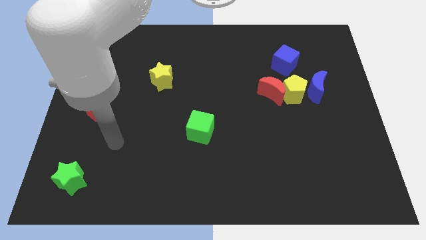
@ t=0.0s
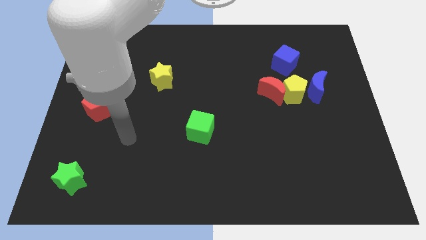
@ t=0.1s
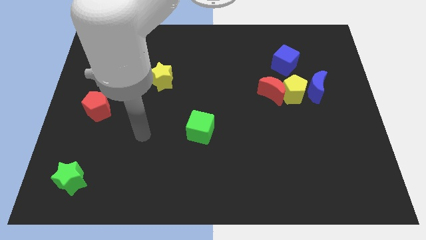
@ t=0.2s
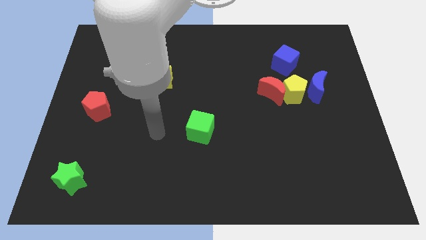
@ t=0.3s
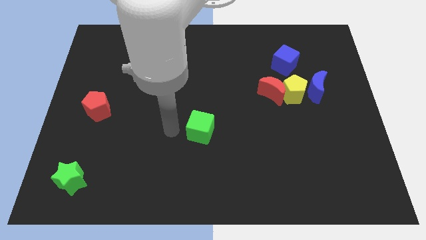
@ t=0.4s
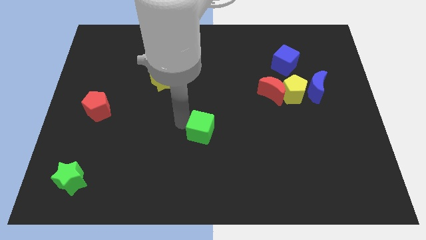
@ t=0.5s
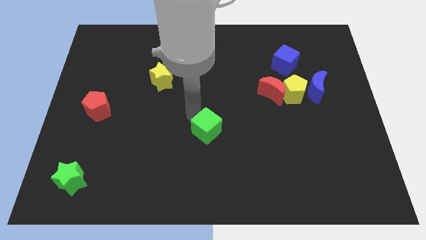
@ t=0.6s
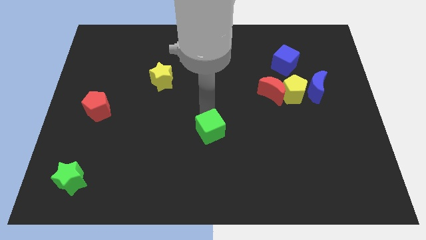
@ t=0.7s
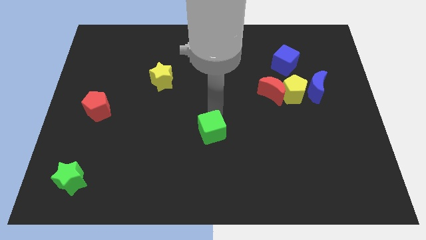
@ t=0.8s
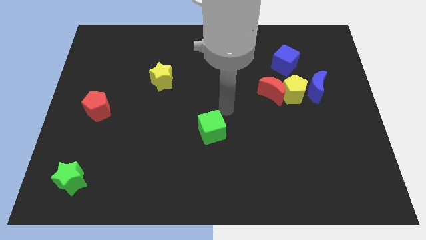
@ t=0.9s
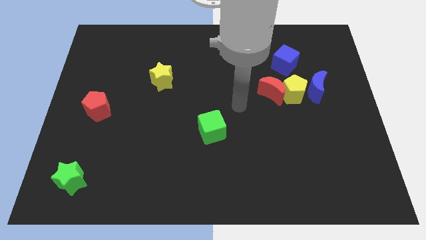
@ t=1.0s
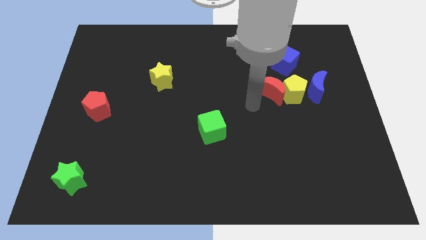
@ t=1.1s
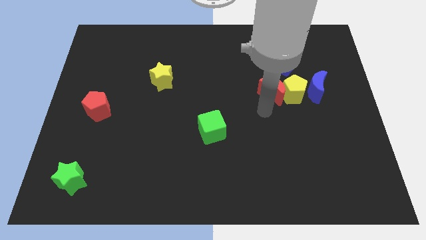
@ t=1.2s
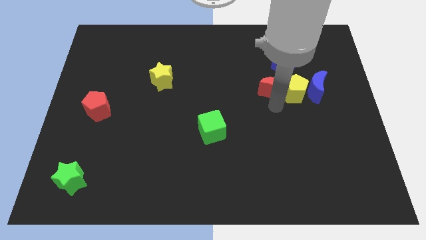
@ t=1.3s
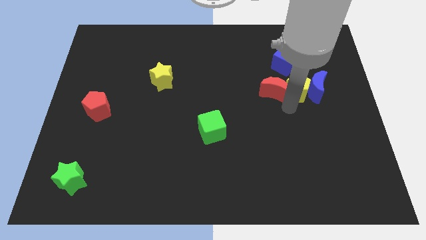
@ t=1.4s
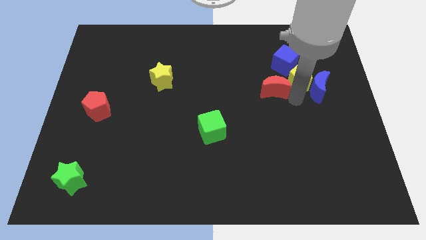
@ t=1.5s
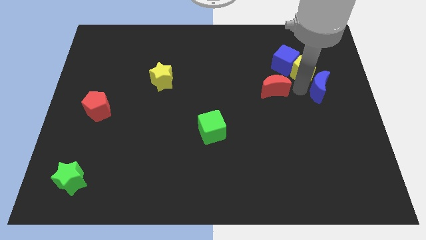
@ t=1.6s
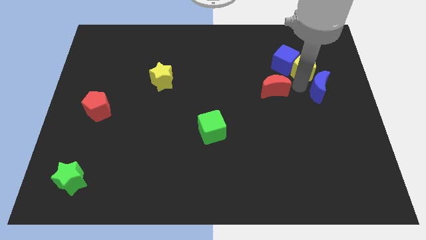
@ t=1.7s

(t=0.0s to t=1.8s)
separate the red moon from the yellow pentagon

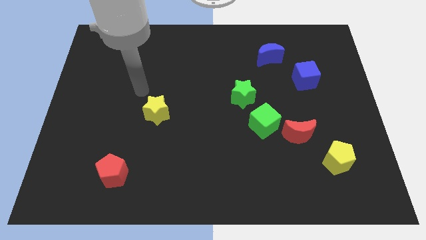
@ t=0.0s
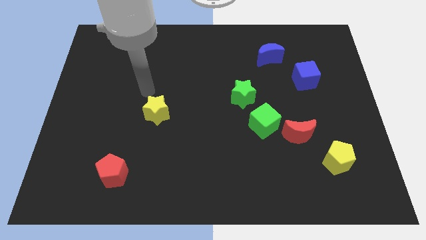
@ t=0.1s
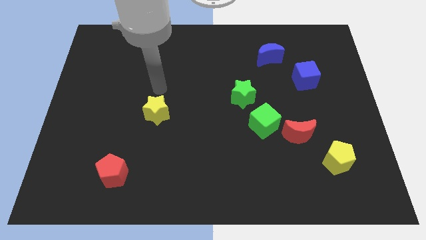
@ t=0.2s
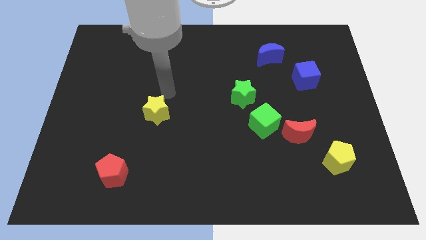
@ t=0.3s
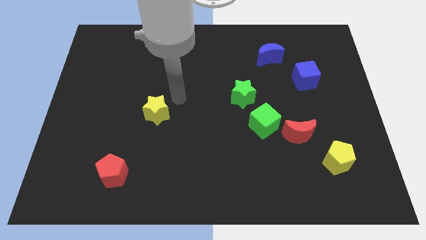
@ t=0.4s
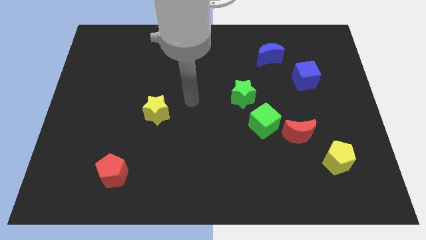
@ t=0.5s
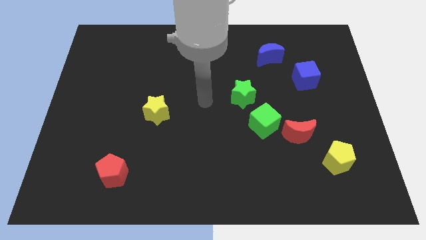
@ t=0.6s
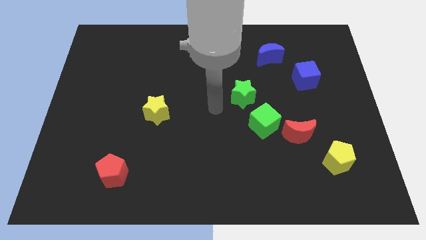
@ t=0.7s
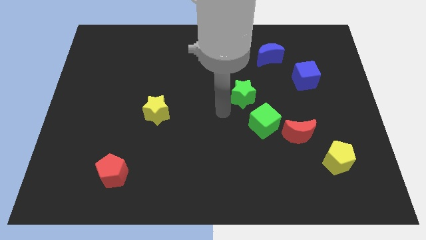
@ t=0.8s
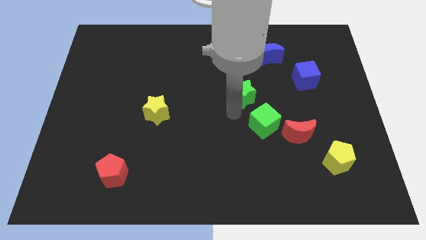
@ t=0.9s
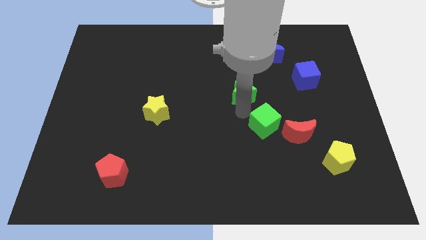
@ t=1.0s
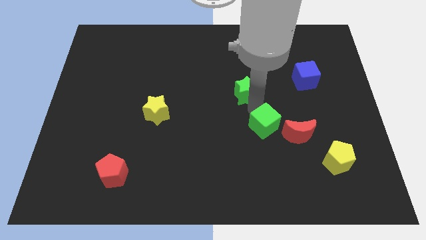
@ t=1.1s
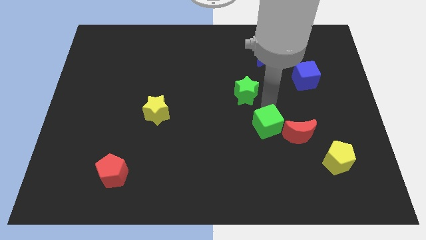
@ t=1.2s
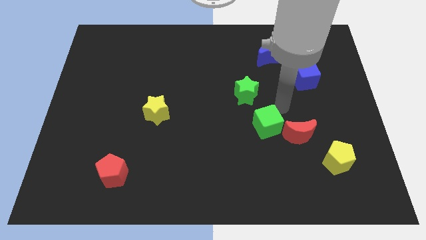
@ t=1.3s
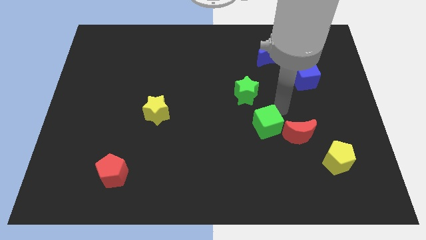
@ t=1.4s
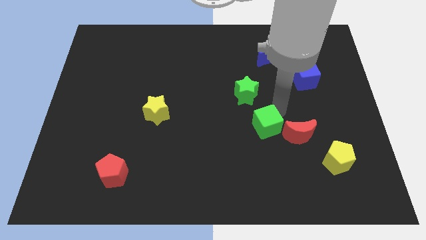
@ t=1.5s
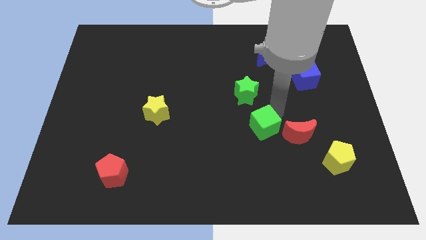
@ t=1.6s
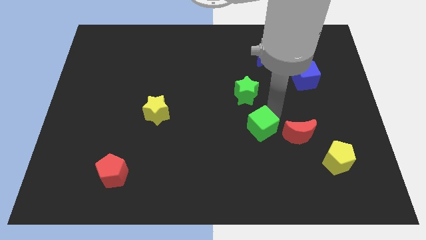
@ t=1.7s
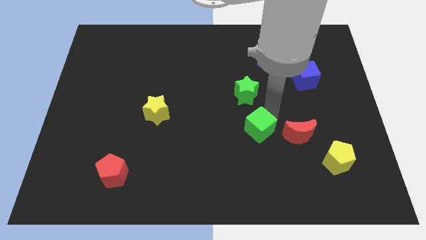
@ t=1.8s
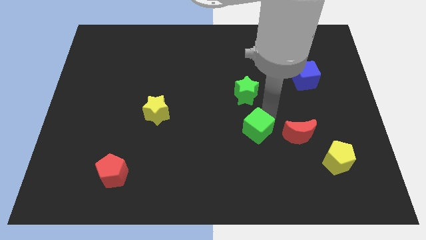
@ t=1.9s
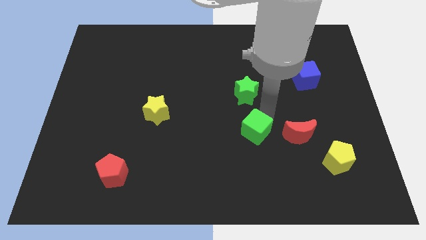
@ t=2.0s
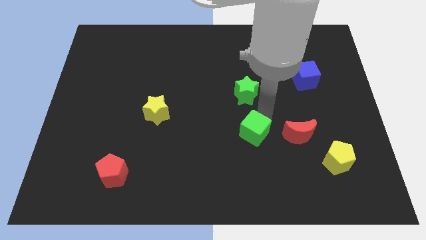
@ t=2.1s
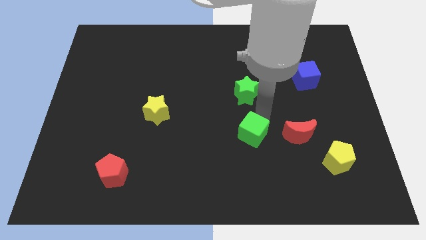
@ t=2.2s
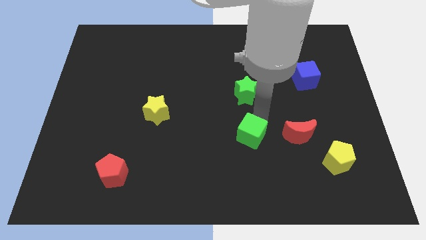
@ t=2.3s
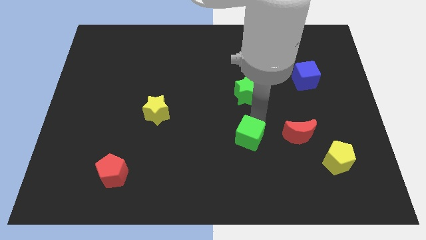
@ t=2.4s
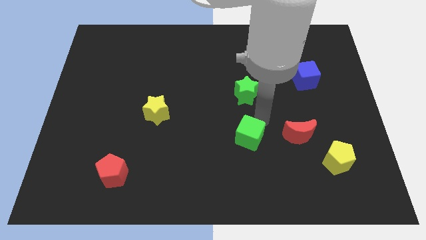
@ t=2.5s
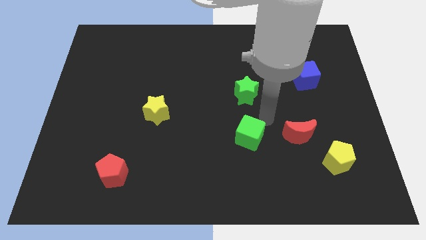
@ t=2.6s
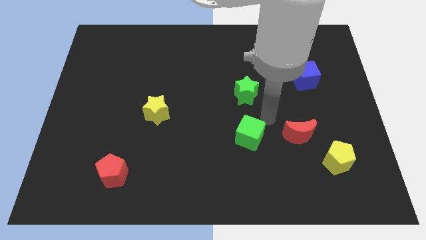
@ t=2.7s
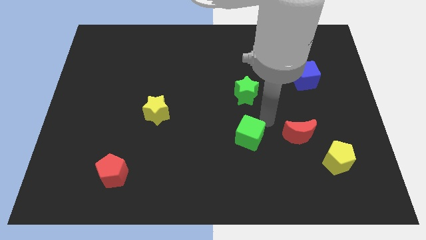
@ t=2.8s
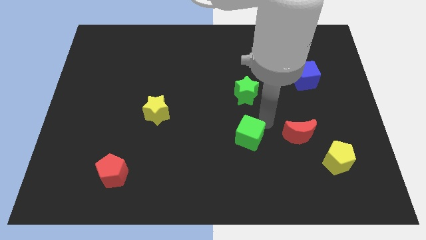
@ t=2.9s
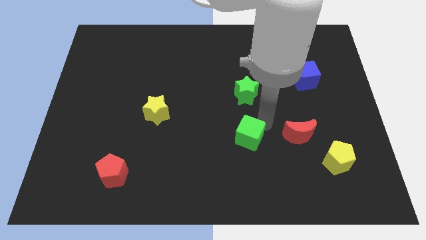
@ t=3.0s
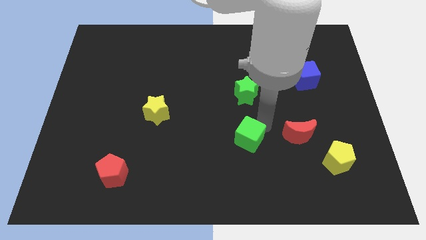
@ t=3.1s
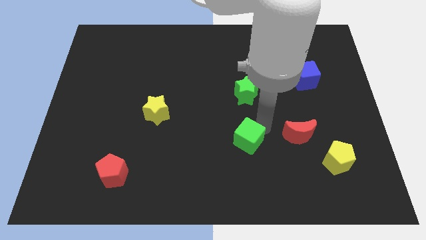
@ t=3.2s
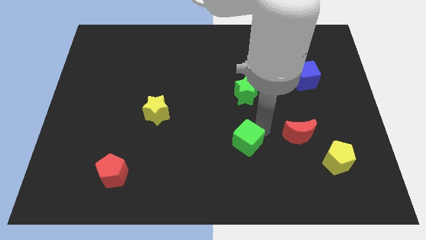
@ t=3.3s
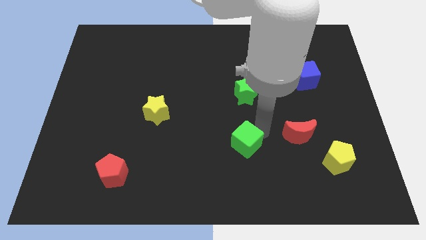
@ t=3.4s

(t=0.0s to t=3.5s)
separate the green cube from the red moon and green star

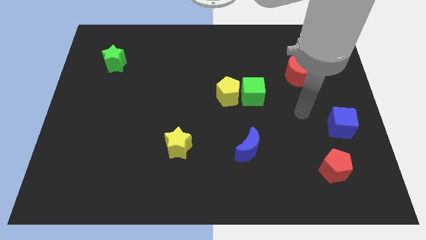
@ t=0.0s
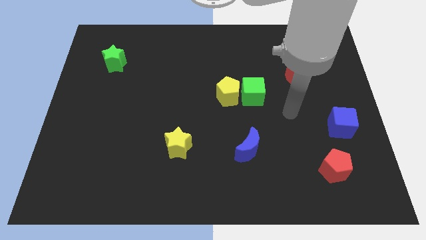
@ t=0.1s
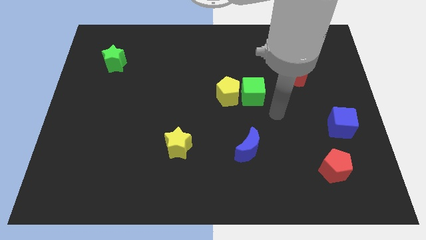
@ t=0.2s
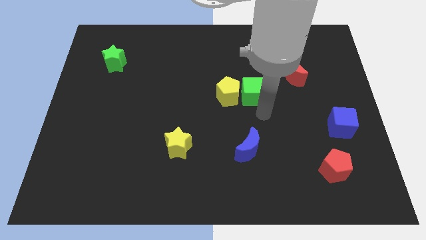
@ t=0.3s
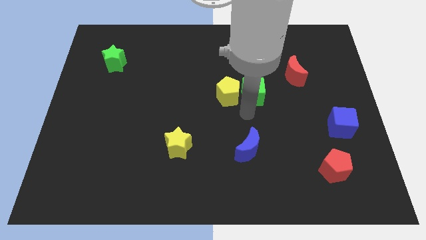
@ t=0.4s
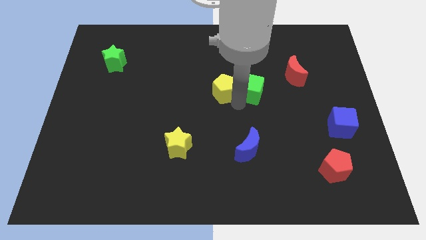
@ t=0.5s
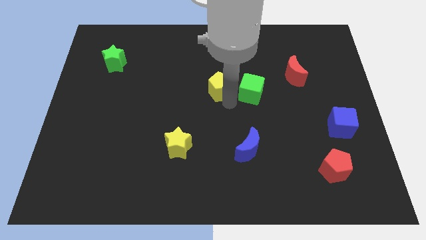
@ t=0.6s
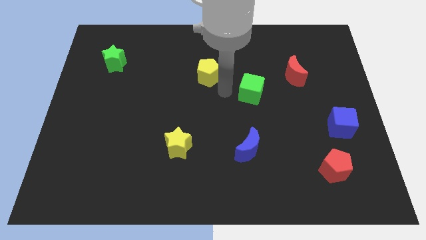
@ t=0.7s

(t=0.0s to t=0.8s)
move the green cube away from the yellow pentagon

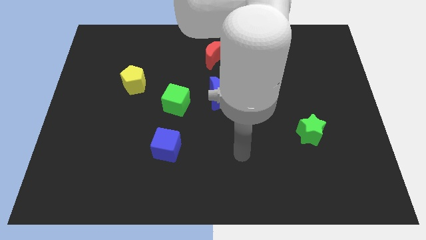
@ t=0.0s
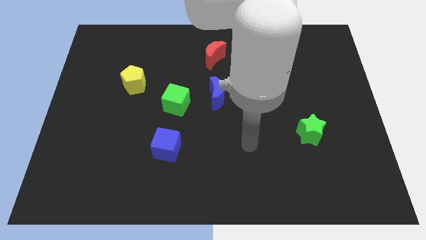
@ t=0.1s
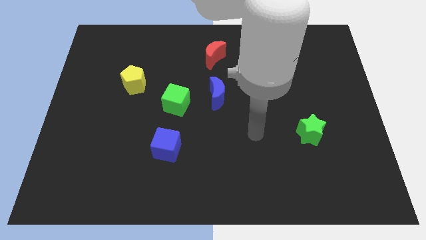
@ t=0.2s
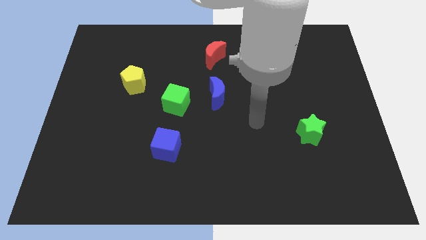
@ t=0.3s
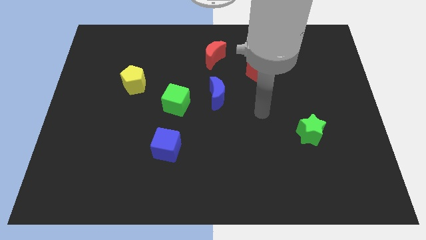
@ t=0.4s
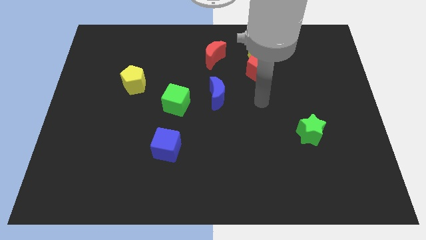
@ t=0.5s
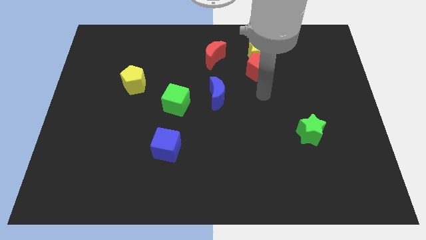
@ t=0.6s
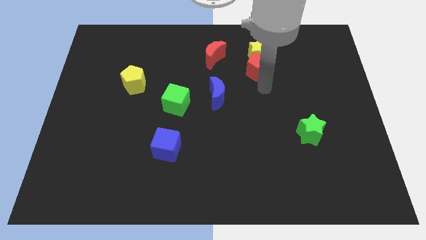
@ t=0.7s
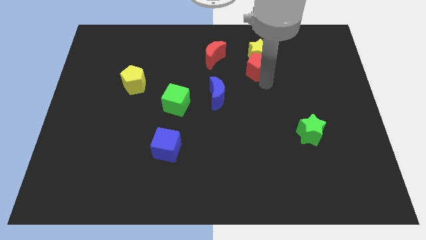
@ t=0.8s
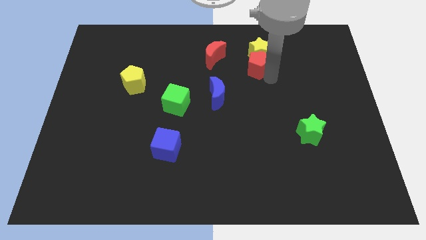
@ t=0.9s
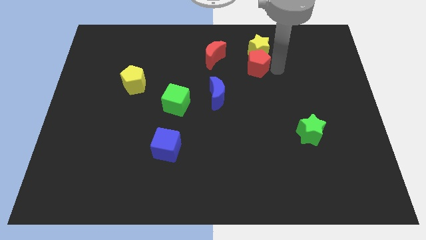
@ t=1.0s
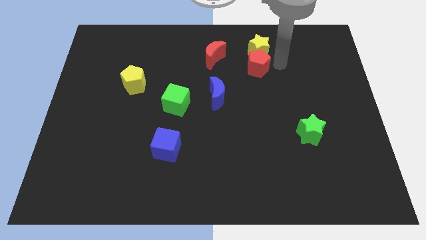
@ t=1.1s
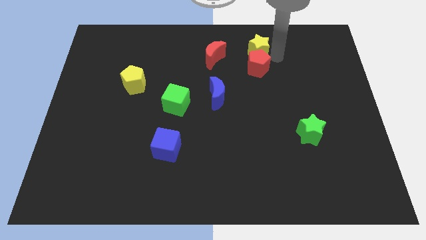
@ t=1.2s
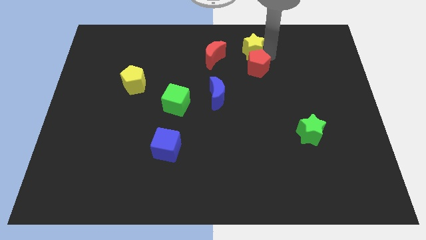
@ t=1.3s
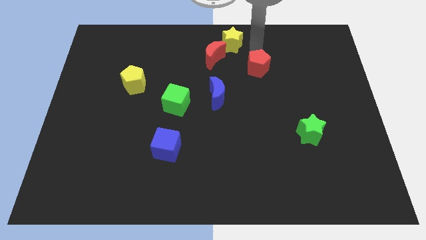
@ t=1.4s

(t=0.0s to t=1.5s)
separate the red pentagon from the yellow star

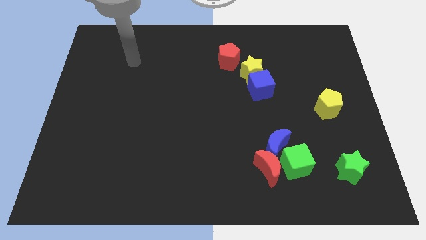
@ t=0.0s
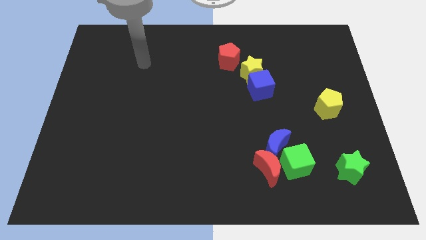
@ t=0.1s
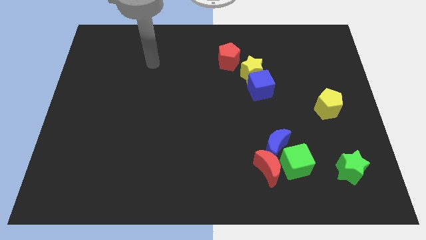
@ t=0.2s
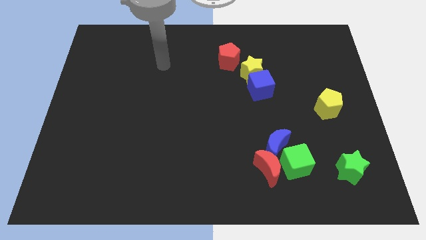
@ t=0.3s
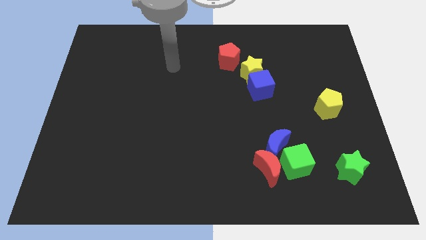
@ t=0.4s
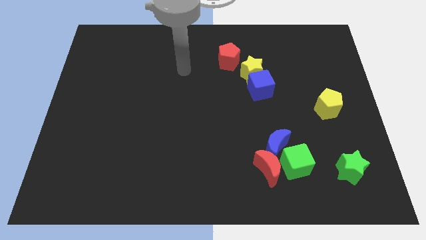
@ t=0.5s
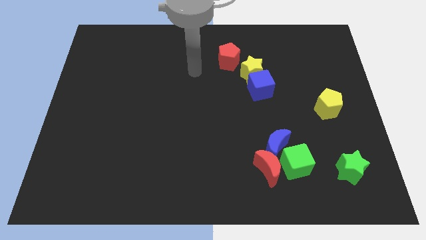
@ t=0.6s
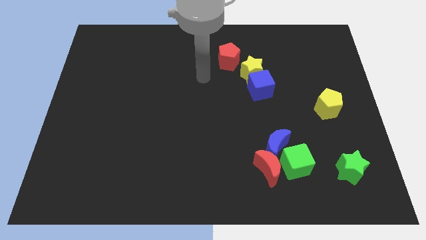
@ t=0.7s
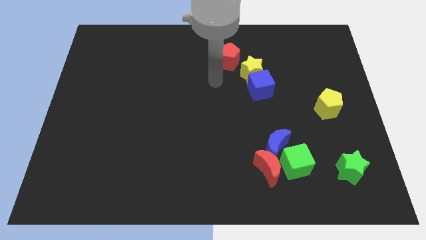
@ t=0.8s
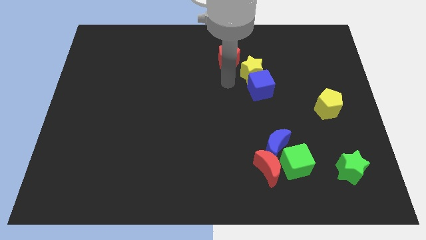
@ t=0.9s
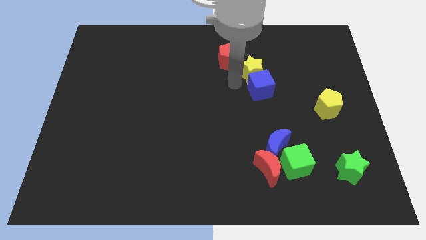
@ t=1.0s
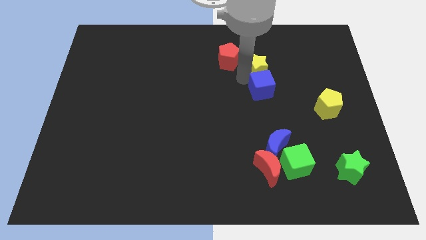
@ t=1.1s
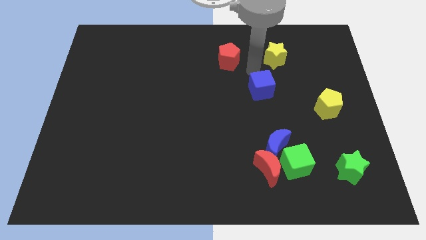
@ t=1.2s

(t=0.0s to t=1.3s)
separate the blue cube from the yellow star

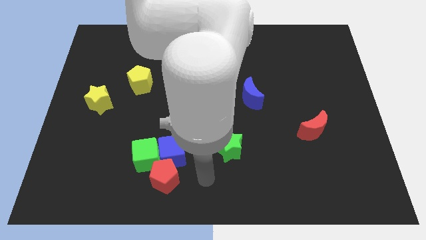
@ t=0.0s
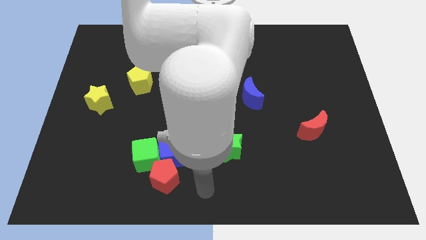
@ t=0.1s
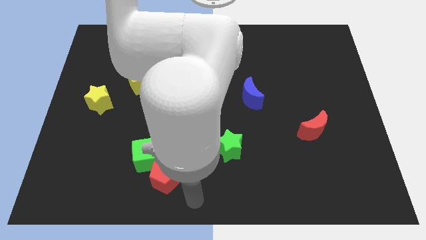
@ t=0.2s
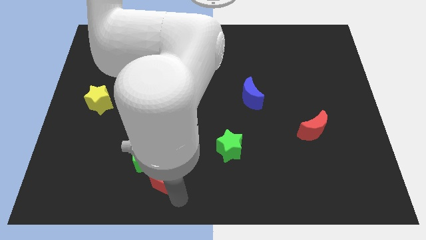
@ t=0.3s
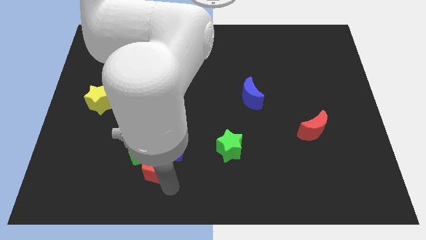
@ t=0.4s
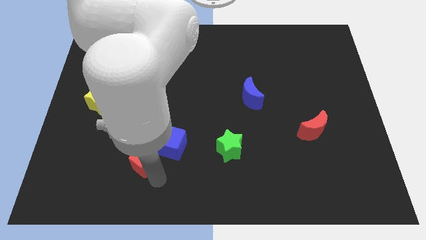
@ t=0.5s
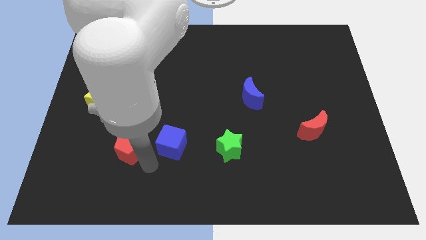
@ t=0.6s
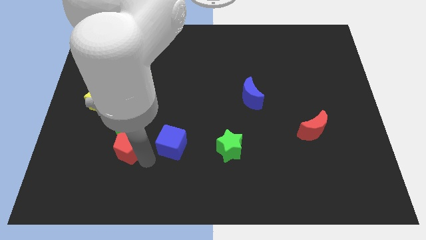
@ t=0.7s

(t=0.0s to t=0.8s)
pull the blue cube apart from the green cube and red pentagon
